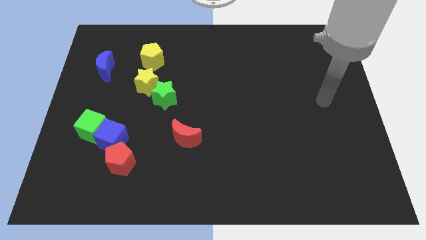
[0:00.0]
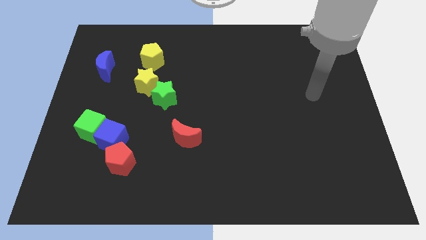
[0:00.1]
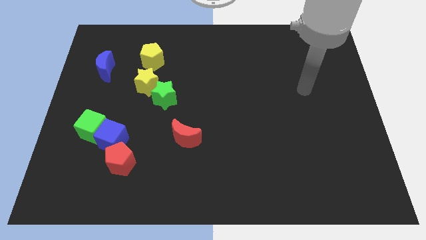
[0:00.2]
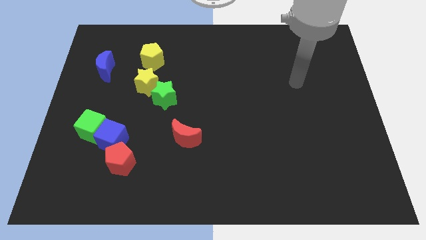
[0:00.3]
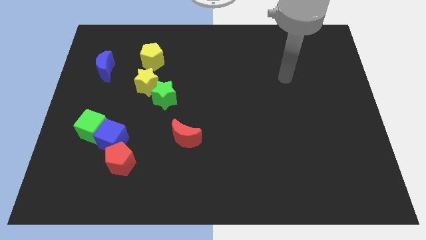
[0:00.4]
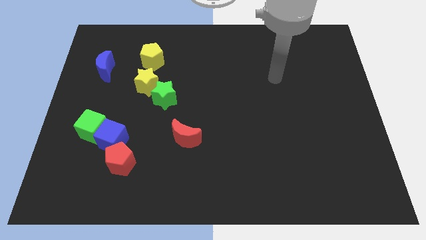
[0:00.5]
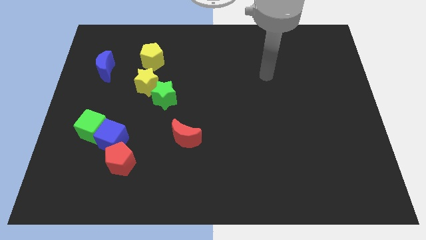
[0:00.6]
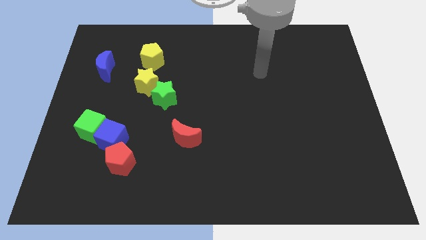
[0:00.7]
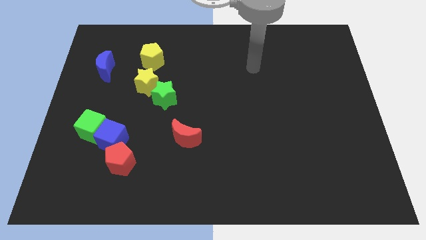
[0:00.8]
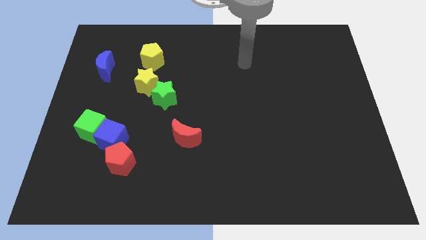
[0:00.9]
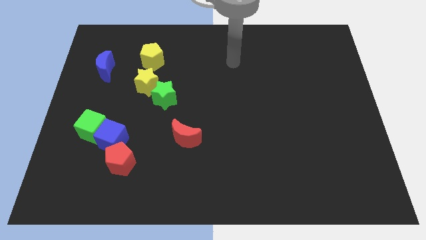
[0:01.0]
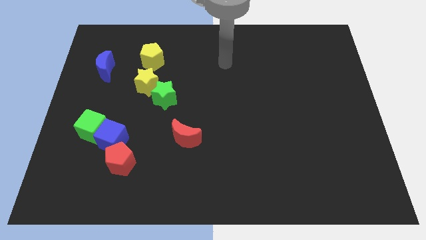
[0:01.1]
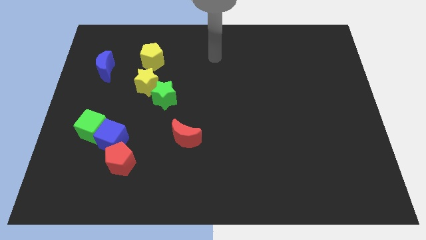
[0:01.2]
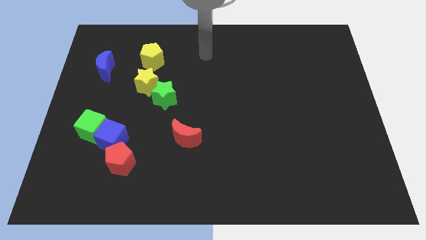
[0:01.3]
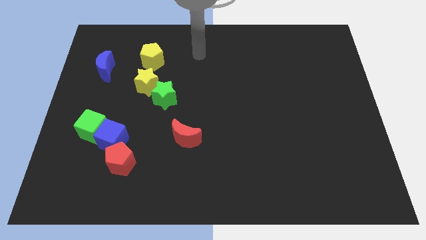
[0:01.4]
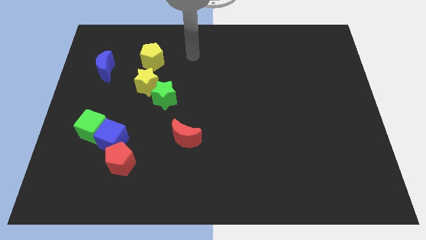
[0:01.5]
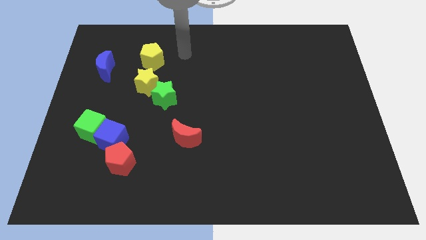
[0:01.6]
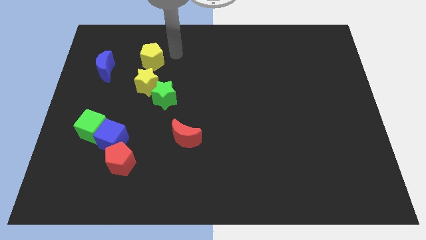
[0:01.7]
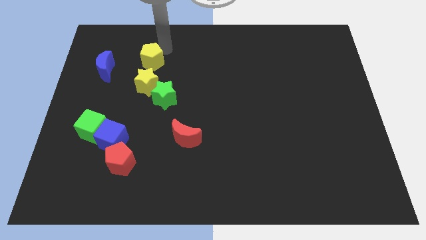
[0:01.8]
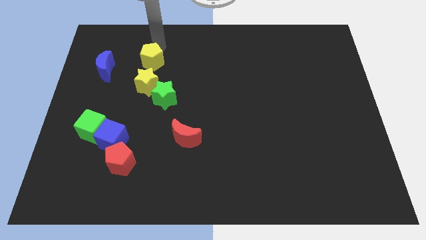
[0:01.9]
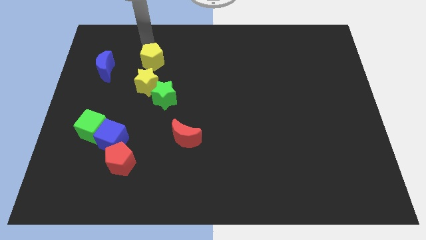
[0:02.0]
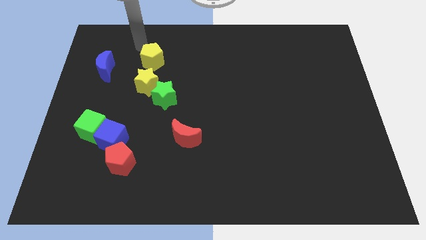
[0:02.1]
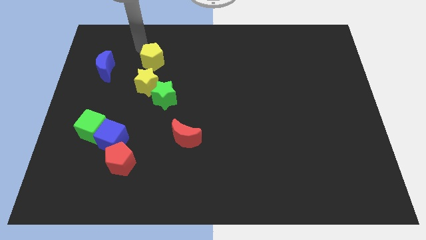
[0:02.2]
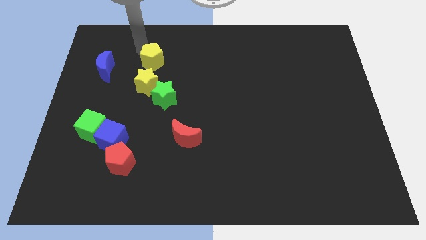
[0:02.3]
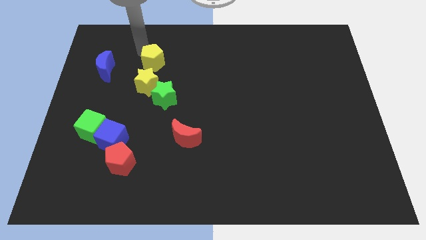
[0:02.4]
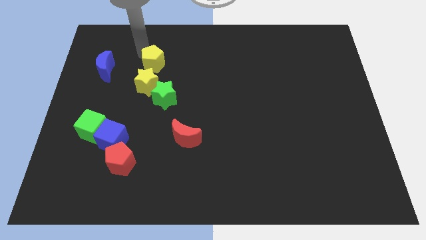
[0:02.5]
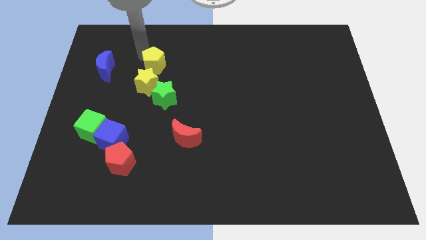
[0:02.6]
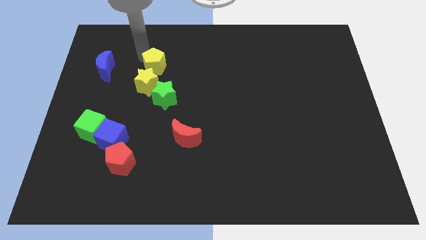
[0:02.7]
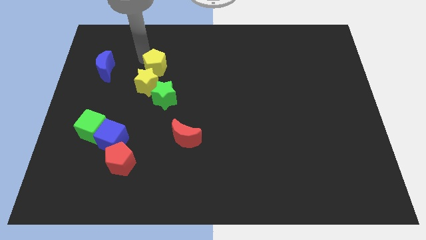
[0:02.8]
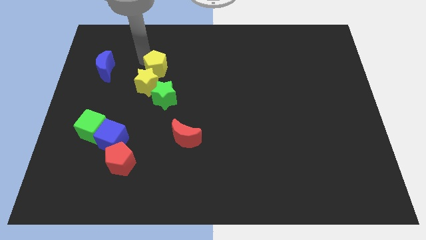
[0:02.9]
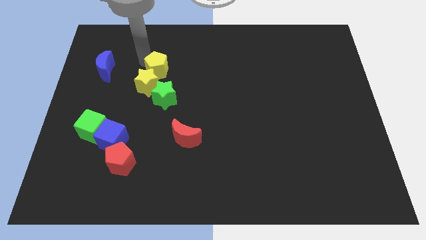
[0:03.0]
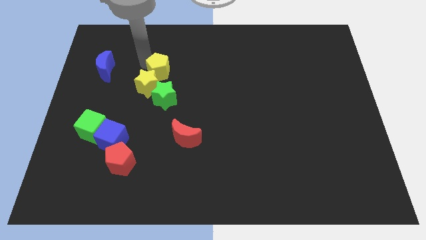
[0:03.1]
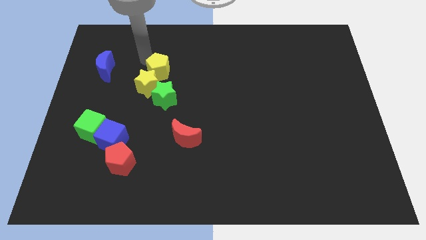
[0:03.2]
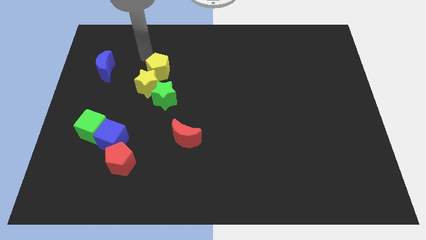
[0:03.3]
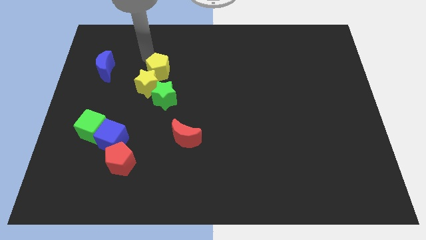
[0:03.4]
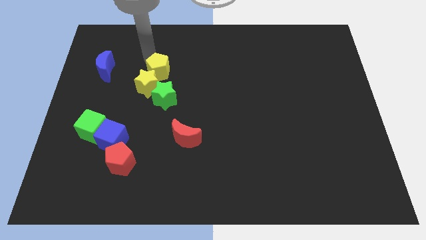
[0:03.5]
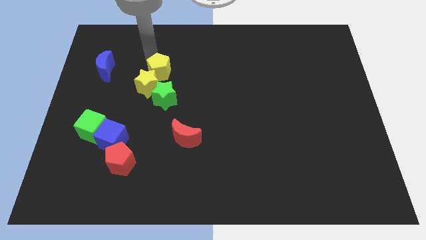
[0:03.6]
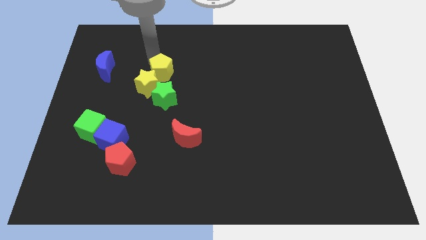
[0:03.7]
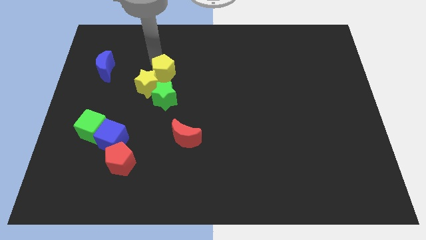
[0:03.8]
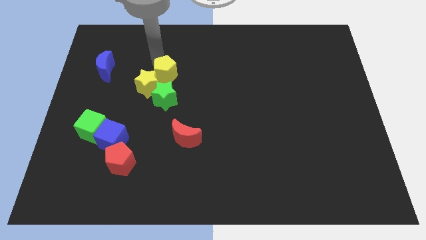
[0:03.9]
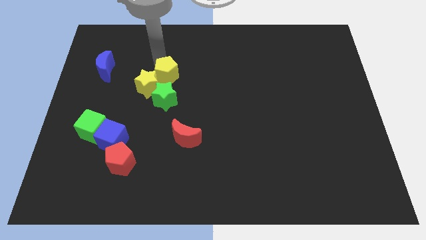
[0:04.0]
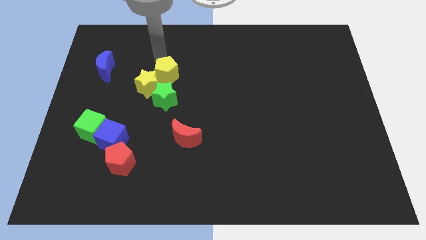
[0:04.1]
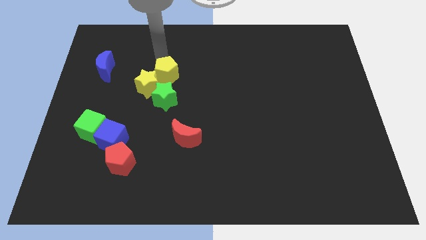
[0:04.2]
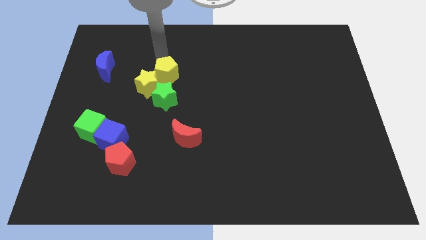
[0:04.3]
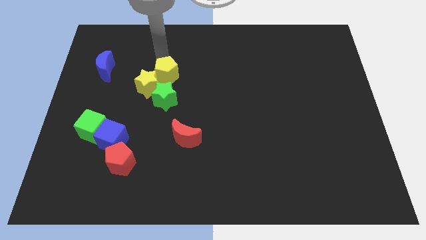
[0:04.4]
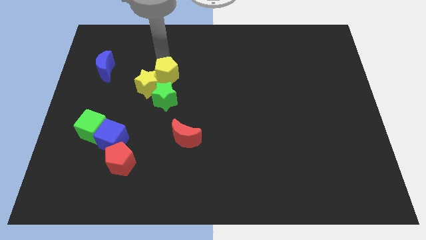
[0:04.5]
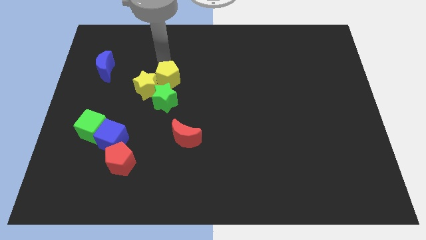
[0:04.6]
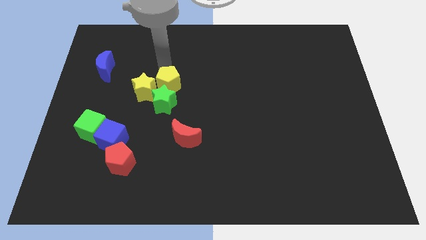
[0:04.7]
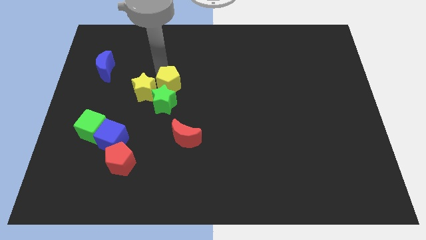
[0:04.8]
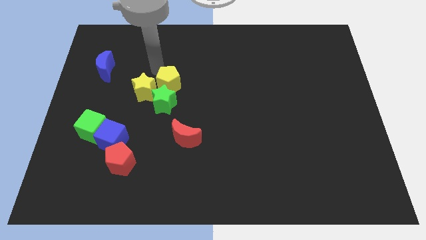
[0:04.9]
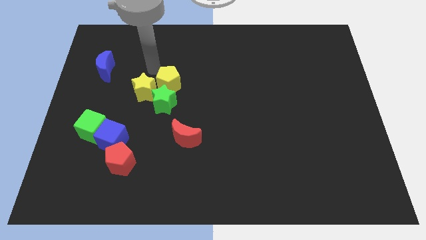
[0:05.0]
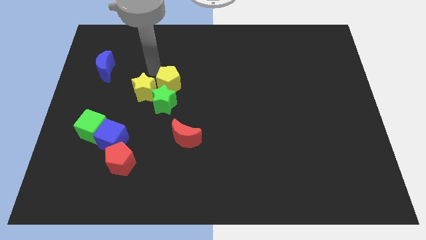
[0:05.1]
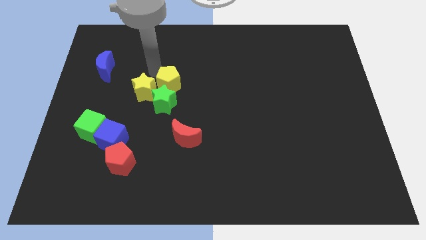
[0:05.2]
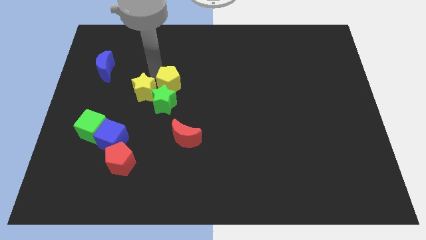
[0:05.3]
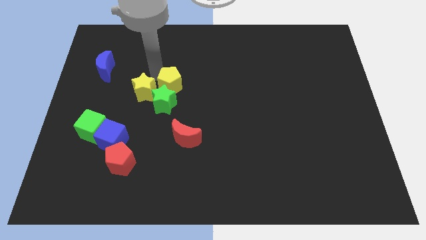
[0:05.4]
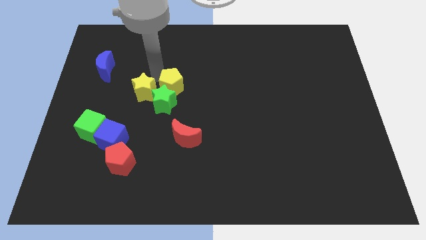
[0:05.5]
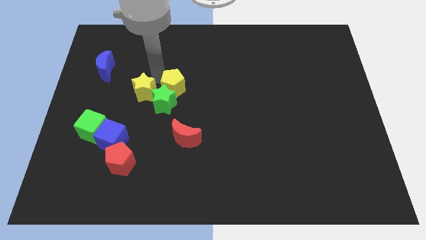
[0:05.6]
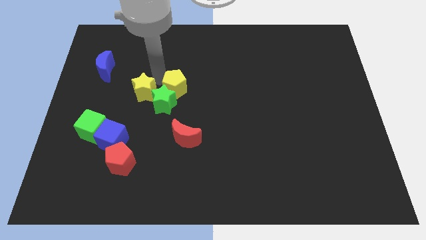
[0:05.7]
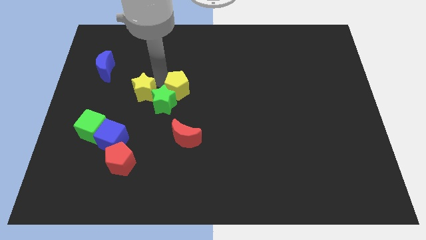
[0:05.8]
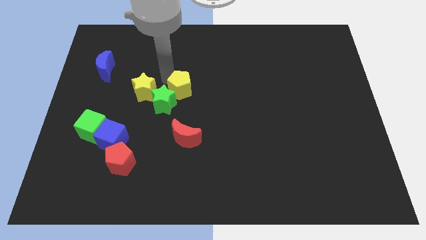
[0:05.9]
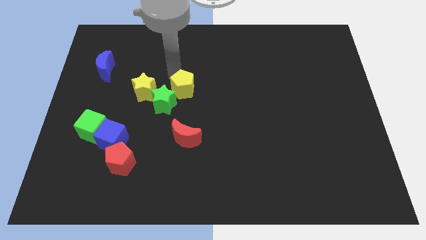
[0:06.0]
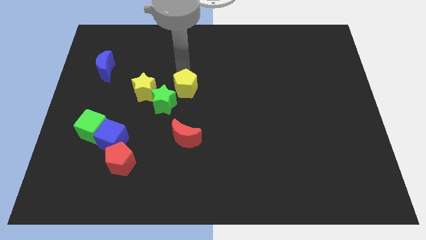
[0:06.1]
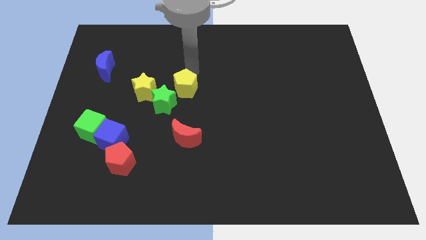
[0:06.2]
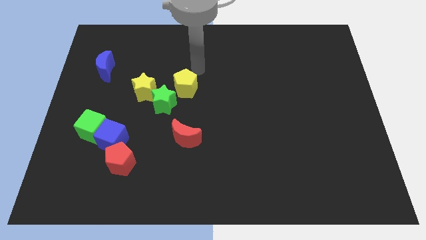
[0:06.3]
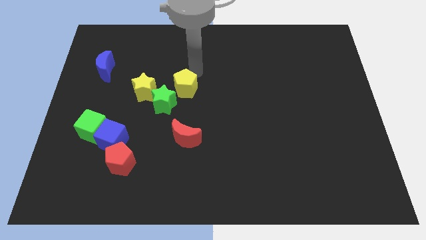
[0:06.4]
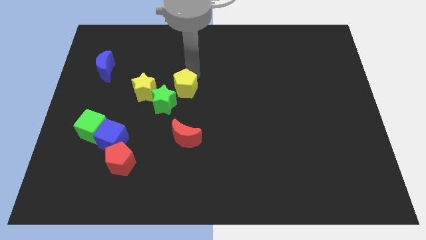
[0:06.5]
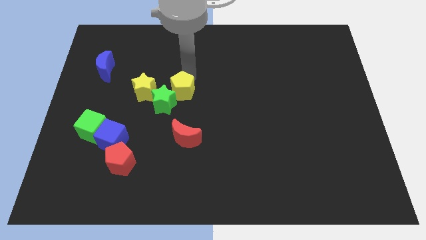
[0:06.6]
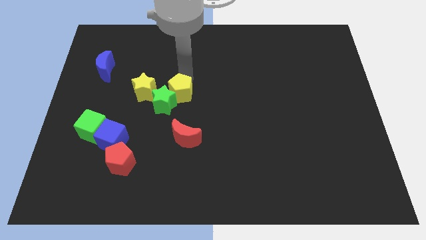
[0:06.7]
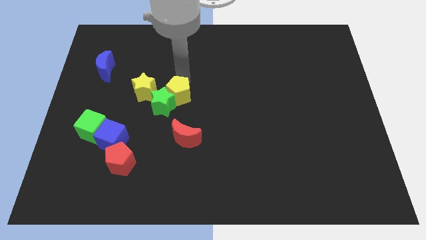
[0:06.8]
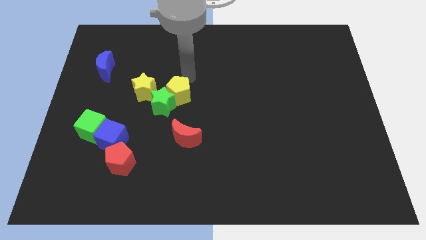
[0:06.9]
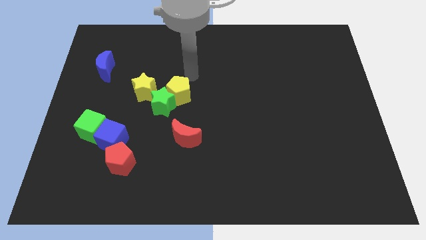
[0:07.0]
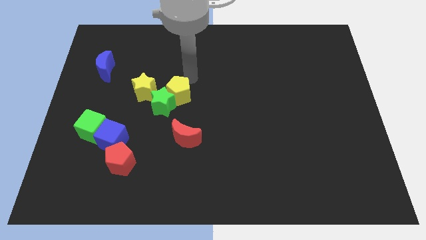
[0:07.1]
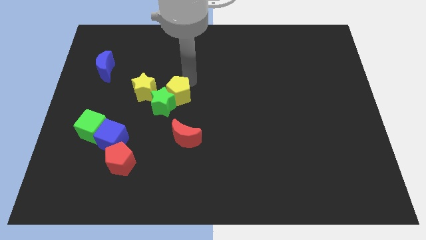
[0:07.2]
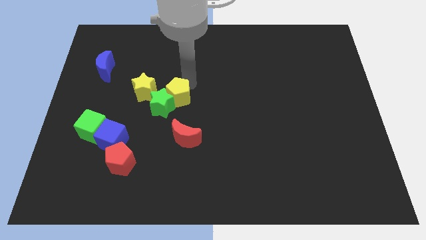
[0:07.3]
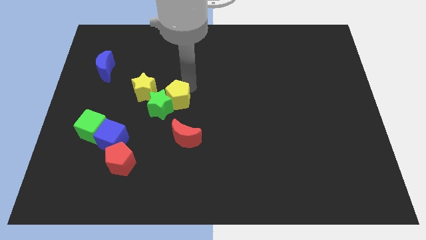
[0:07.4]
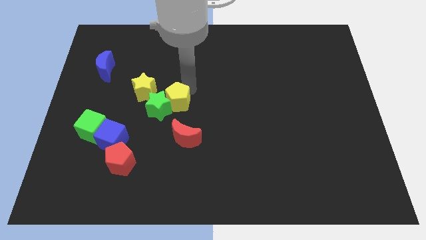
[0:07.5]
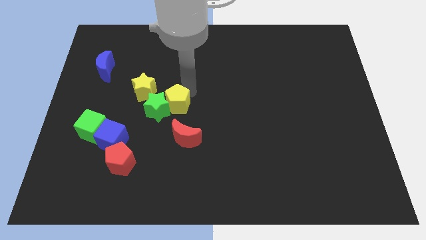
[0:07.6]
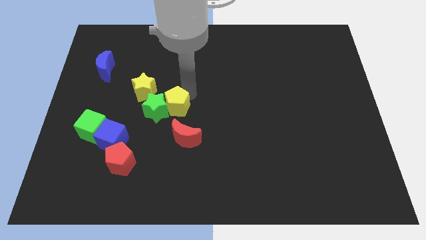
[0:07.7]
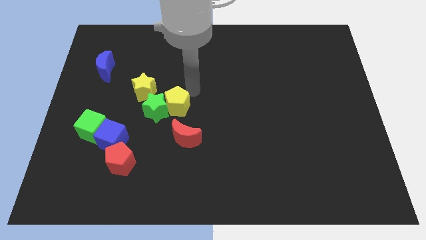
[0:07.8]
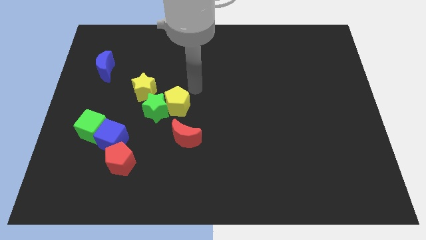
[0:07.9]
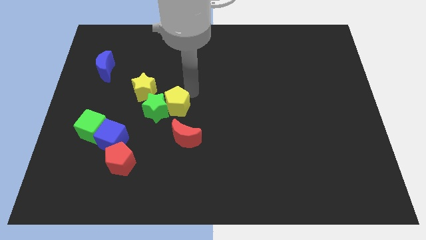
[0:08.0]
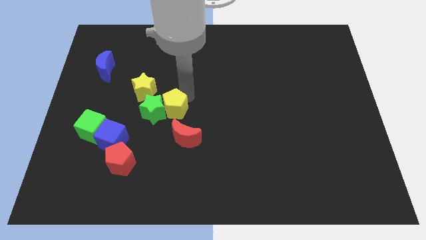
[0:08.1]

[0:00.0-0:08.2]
slide the yellow pentagon to the top left side of the red moon
